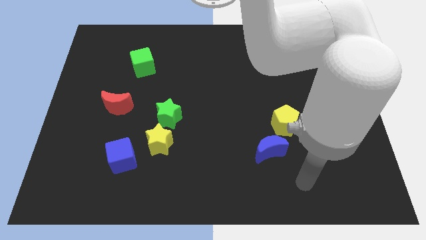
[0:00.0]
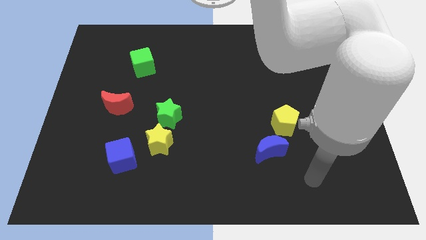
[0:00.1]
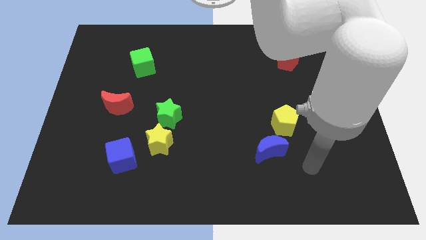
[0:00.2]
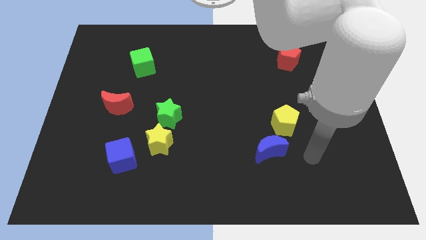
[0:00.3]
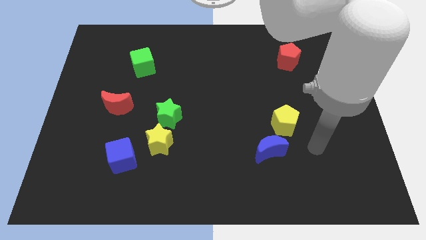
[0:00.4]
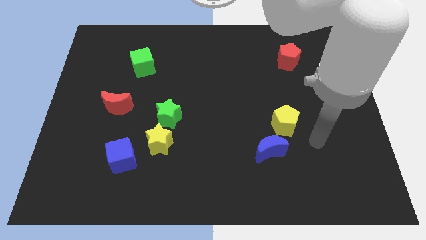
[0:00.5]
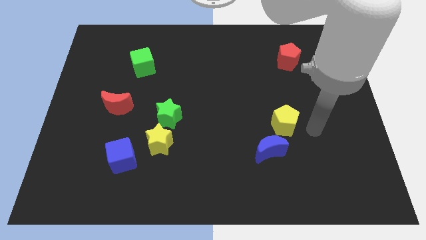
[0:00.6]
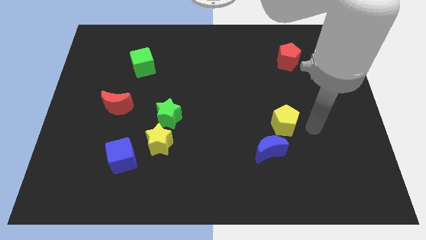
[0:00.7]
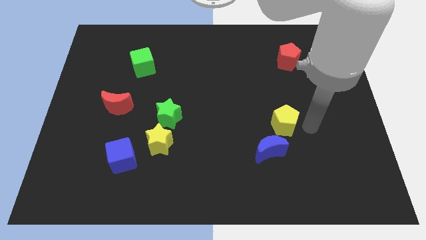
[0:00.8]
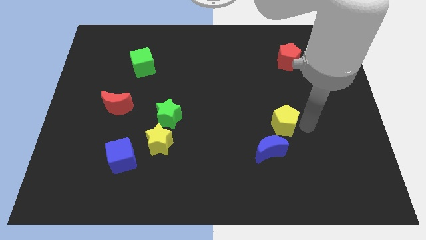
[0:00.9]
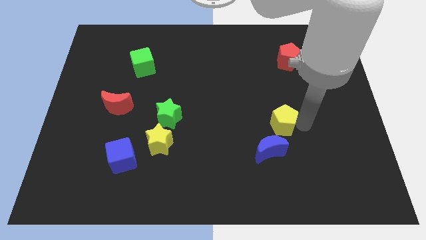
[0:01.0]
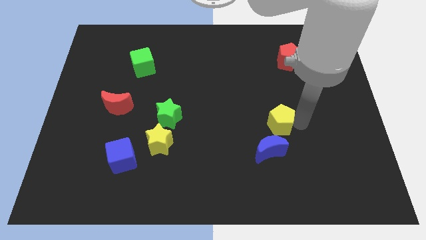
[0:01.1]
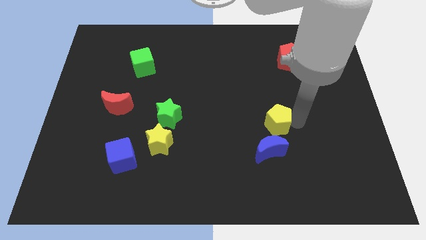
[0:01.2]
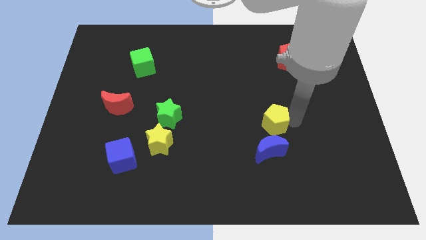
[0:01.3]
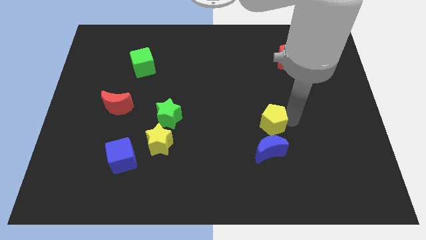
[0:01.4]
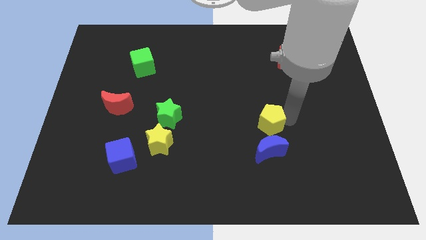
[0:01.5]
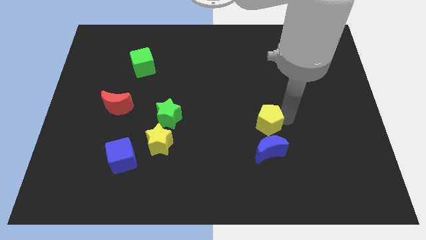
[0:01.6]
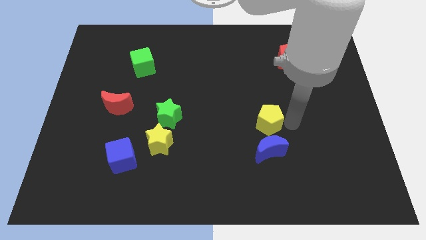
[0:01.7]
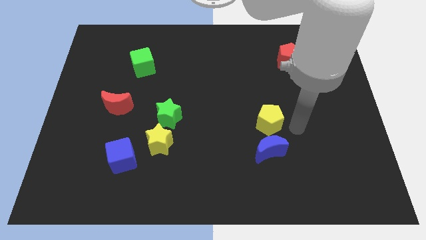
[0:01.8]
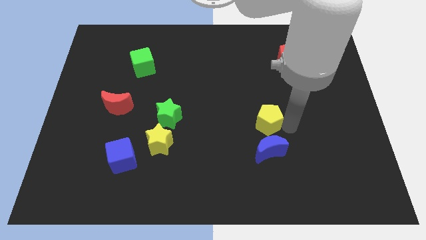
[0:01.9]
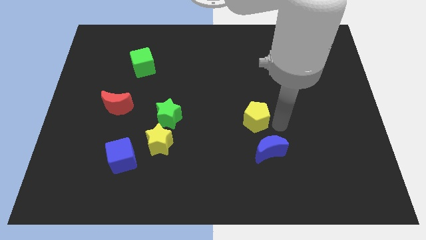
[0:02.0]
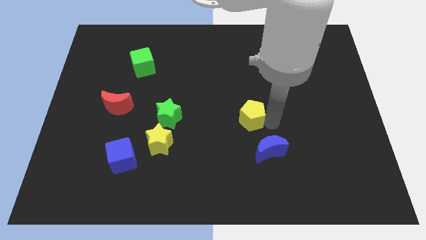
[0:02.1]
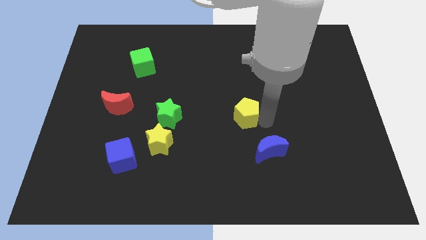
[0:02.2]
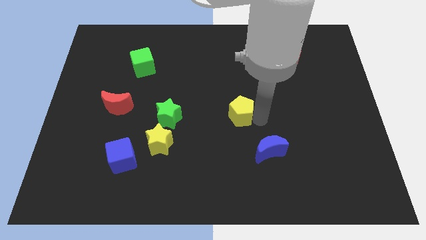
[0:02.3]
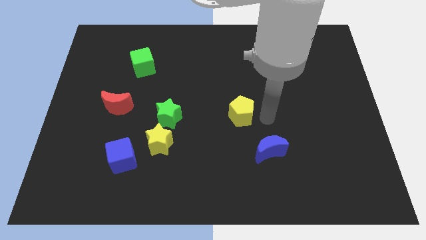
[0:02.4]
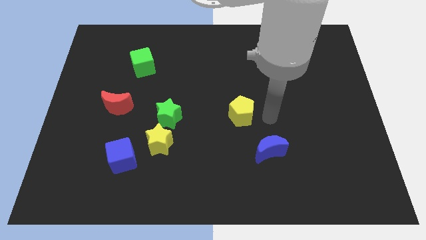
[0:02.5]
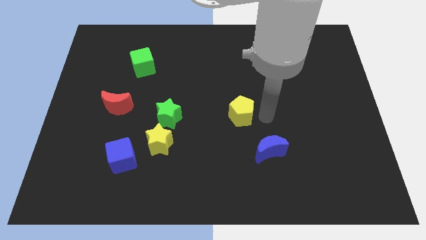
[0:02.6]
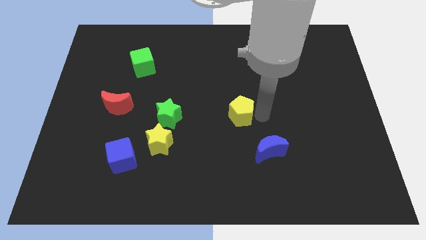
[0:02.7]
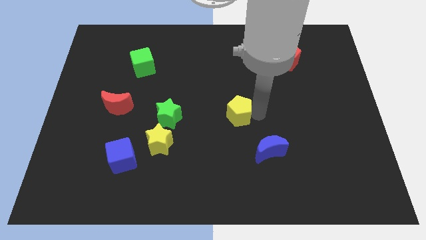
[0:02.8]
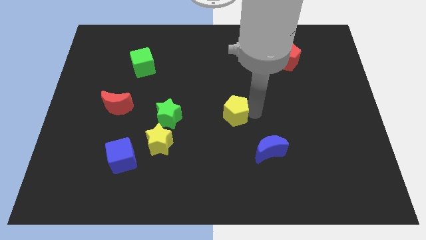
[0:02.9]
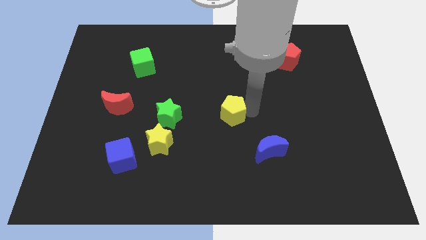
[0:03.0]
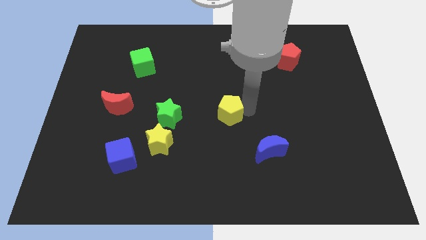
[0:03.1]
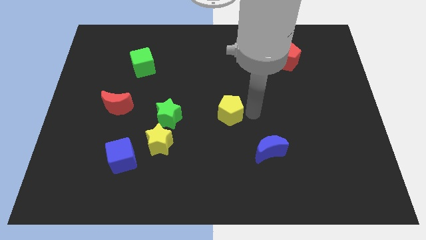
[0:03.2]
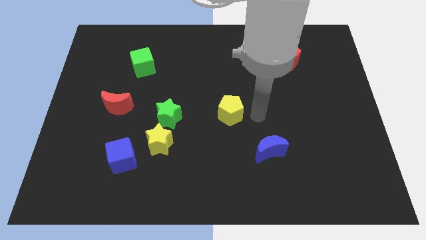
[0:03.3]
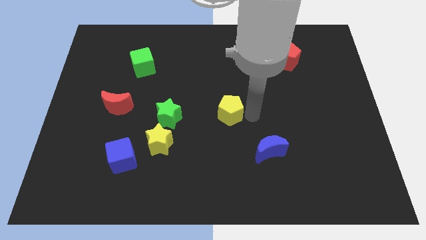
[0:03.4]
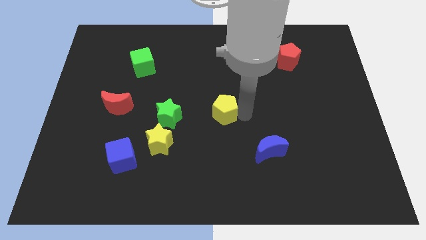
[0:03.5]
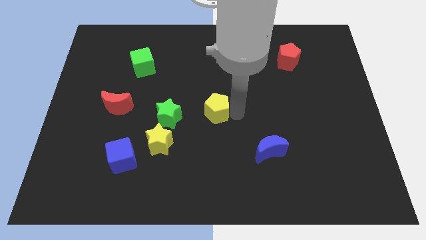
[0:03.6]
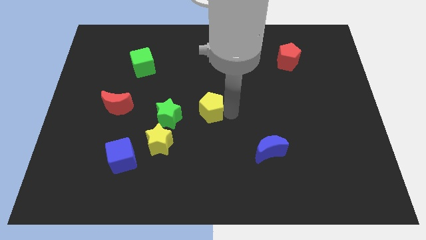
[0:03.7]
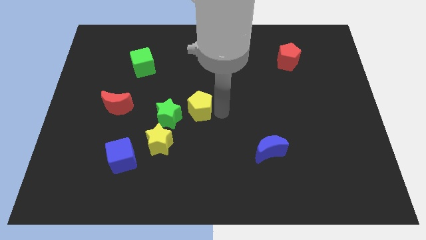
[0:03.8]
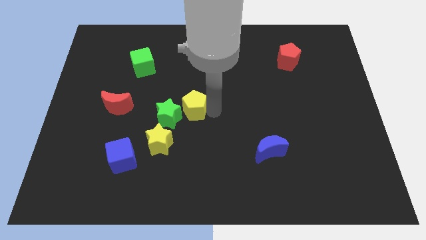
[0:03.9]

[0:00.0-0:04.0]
move the yellow pentagon left

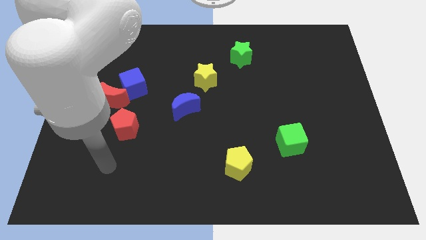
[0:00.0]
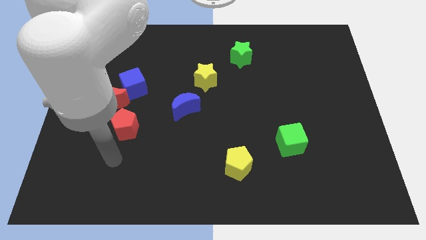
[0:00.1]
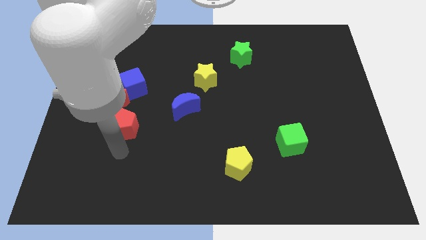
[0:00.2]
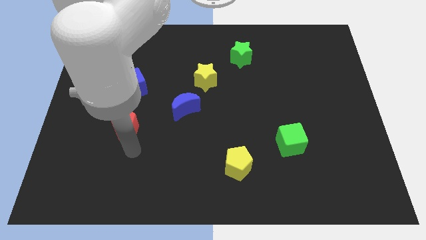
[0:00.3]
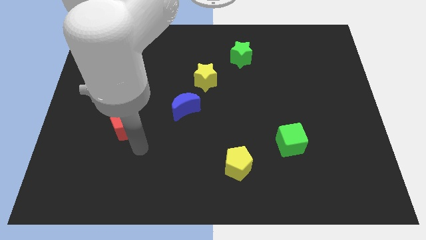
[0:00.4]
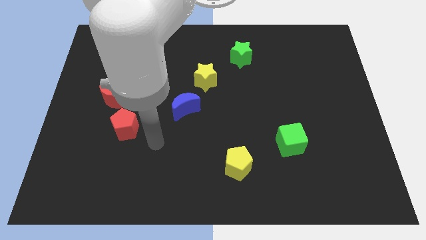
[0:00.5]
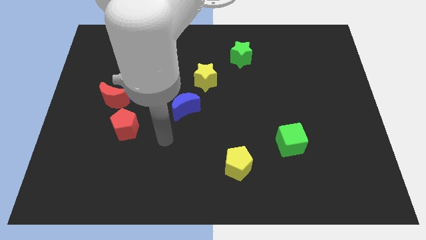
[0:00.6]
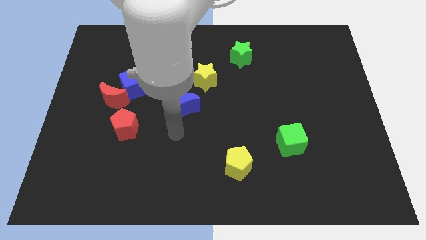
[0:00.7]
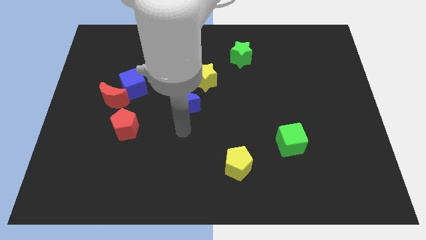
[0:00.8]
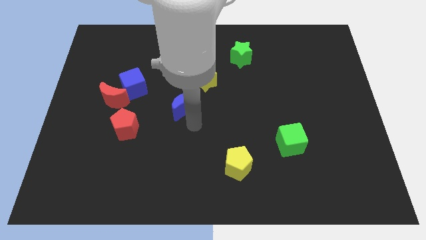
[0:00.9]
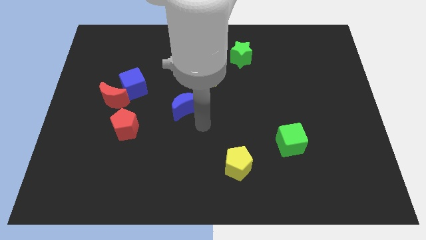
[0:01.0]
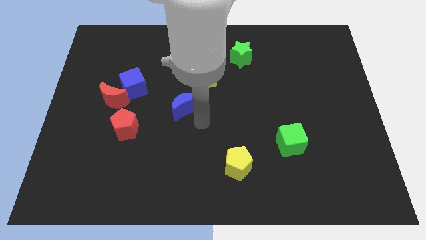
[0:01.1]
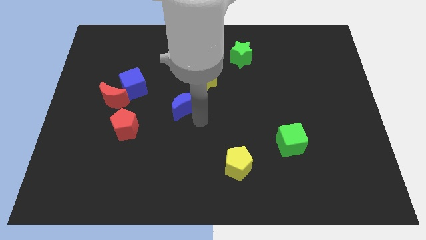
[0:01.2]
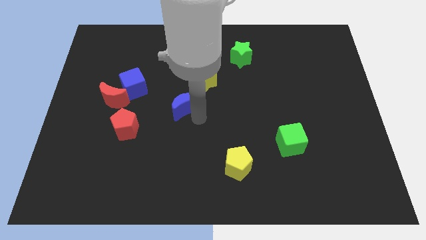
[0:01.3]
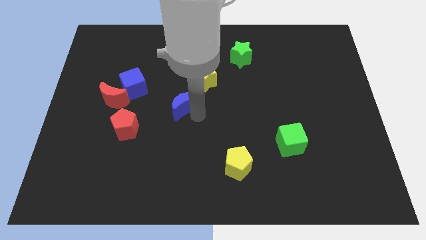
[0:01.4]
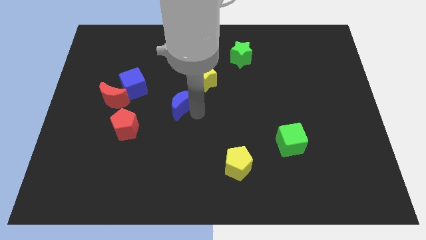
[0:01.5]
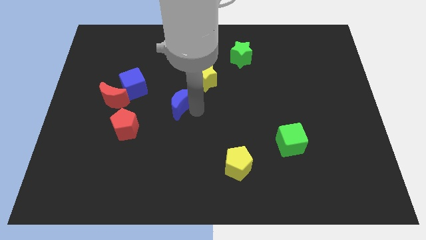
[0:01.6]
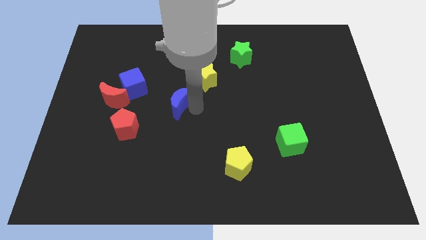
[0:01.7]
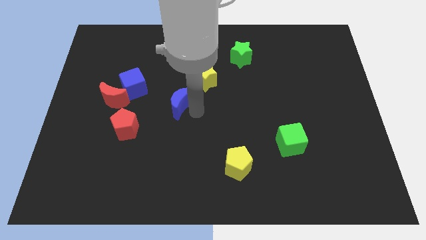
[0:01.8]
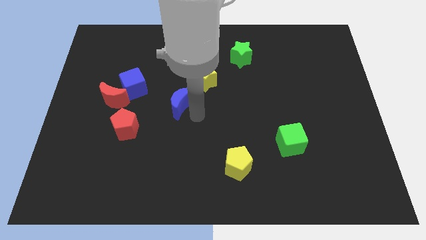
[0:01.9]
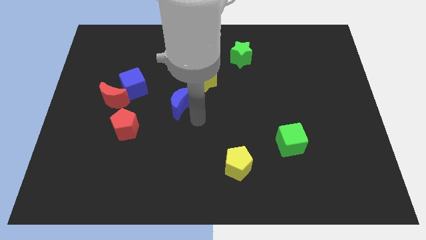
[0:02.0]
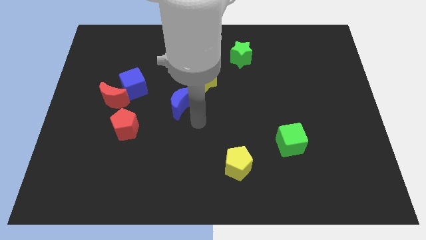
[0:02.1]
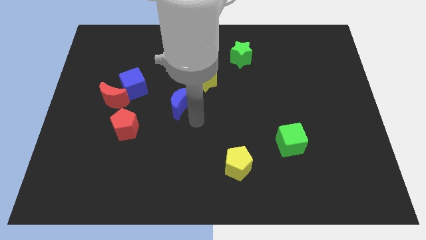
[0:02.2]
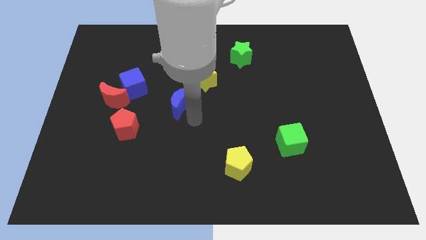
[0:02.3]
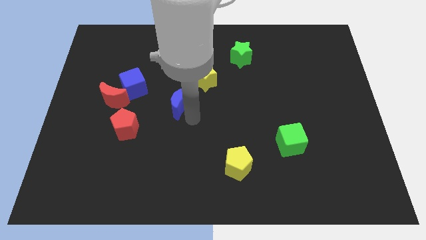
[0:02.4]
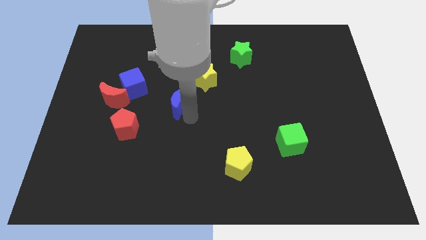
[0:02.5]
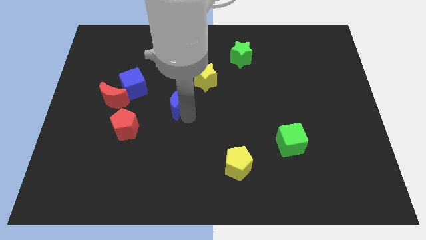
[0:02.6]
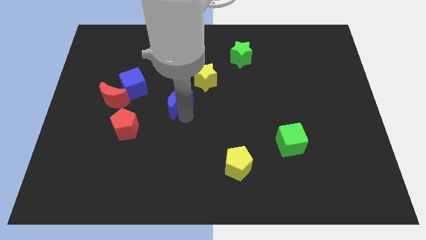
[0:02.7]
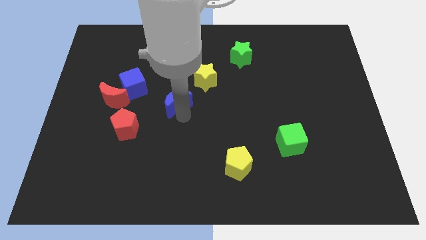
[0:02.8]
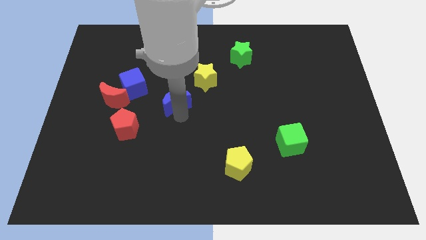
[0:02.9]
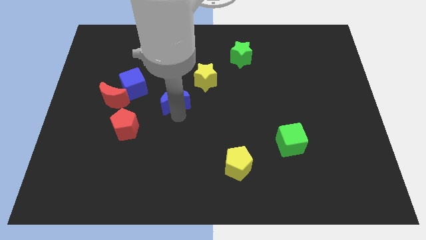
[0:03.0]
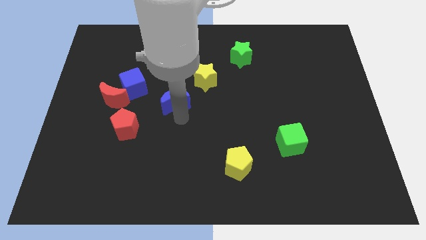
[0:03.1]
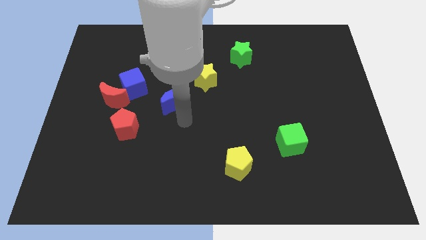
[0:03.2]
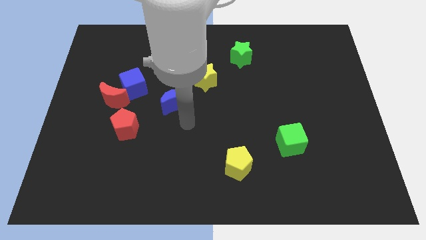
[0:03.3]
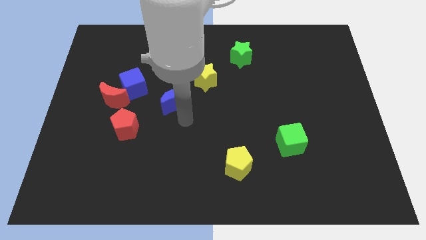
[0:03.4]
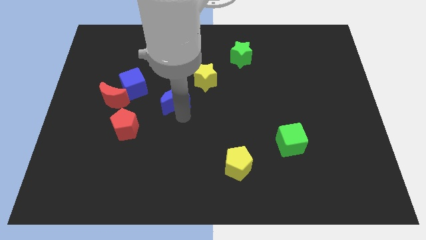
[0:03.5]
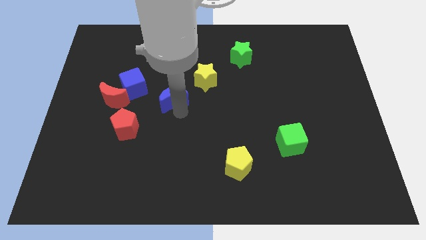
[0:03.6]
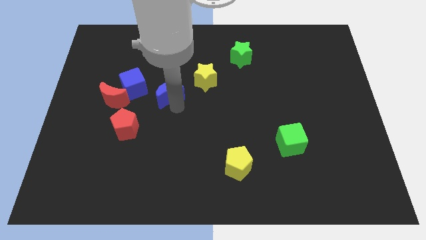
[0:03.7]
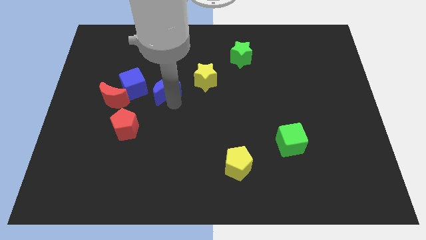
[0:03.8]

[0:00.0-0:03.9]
move the blue moon a little bit diagonally upwards and left
